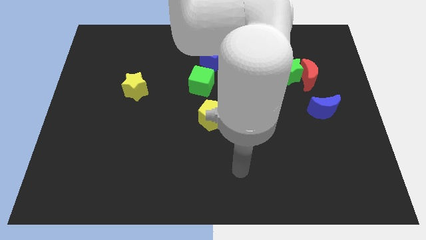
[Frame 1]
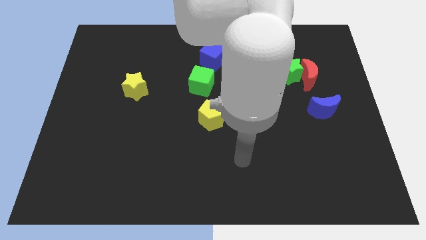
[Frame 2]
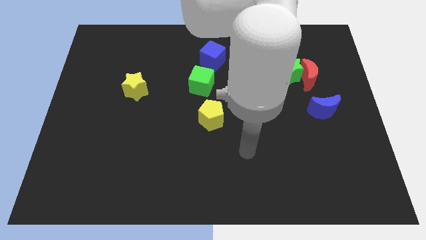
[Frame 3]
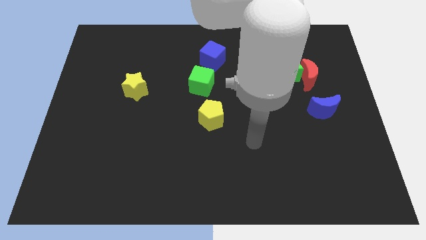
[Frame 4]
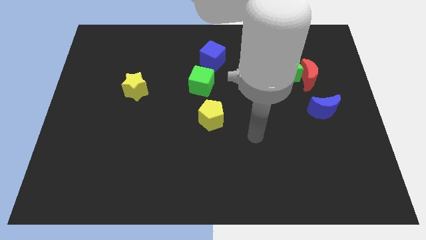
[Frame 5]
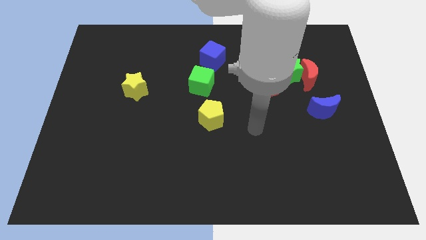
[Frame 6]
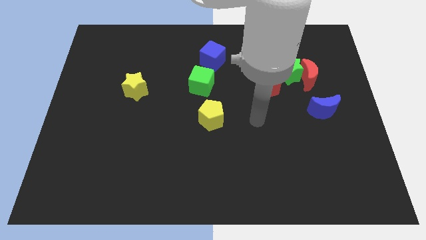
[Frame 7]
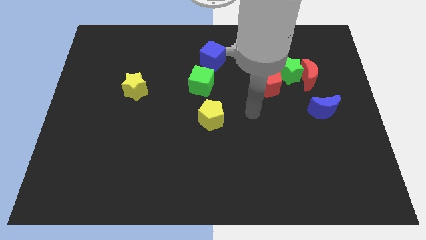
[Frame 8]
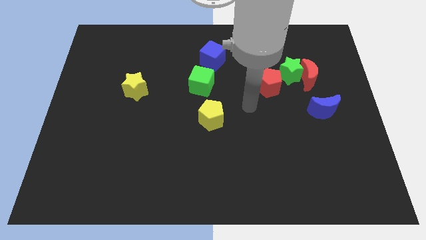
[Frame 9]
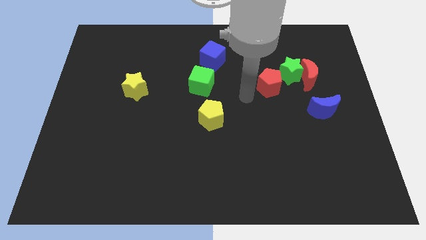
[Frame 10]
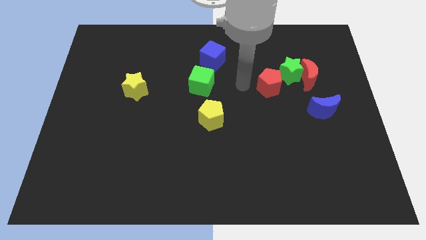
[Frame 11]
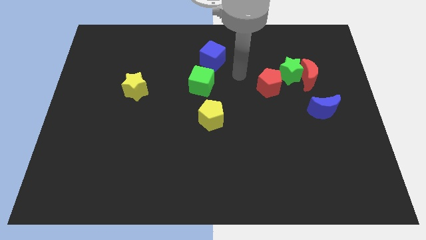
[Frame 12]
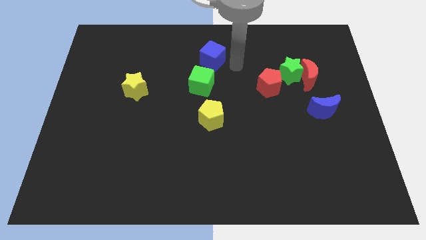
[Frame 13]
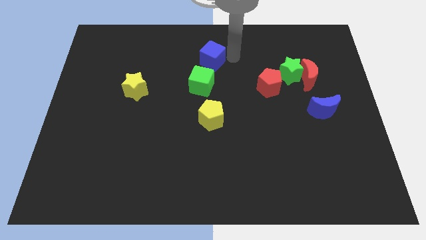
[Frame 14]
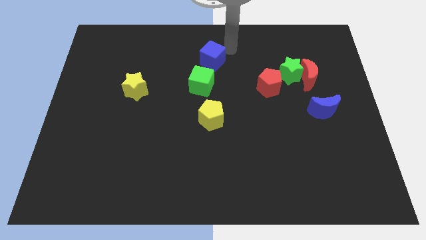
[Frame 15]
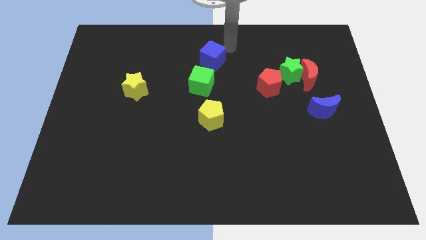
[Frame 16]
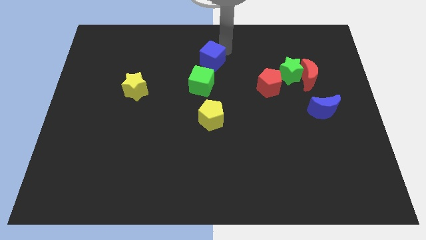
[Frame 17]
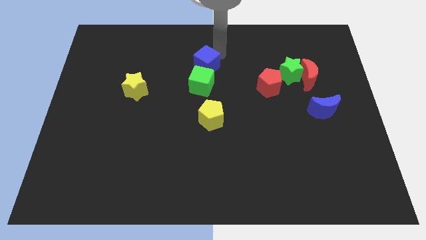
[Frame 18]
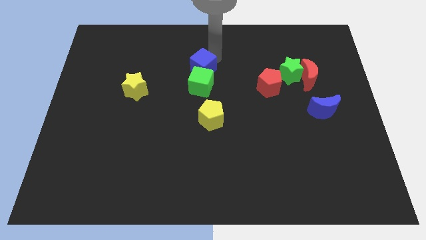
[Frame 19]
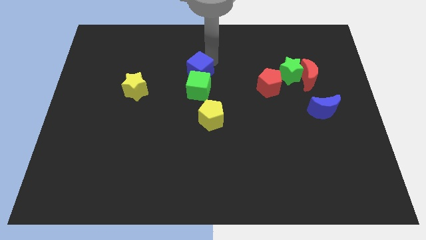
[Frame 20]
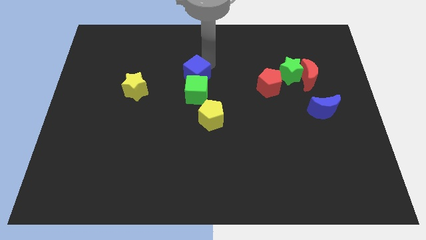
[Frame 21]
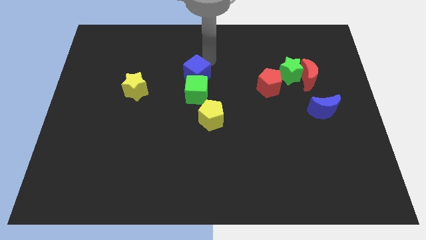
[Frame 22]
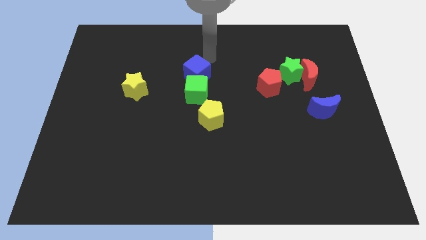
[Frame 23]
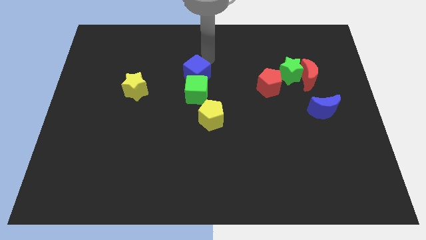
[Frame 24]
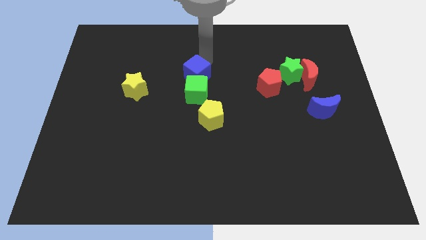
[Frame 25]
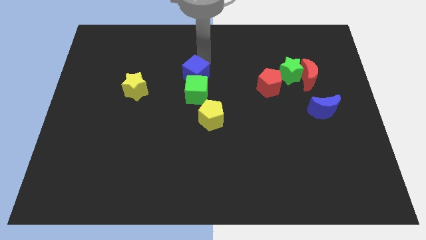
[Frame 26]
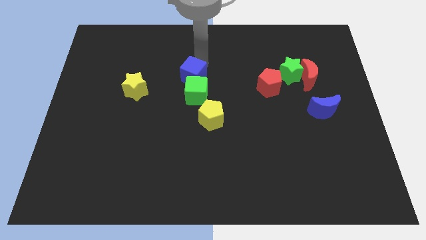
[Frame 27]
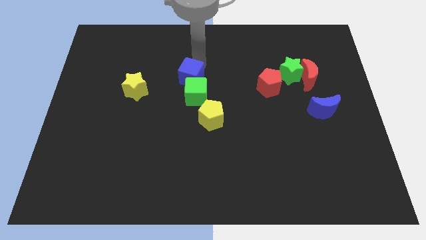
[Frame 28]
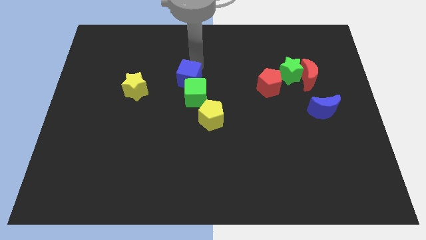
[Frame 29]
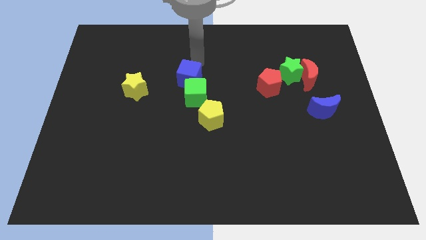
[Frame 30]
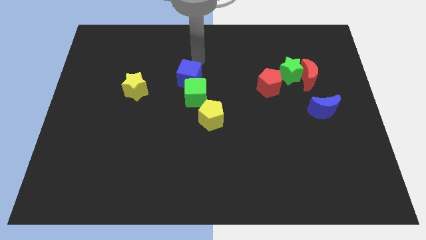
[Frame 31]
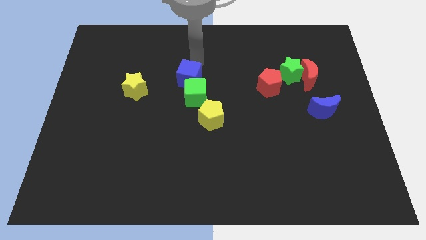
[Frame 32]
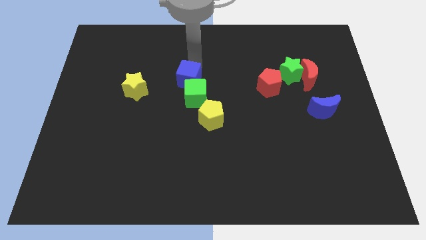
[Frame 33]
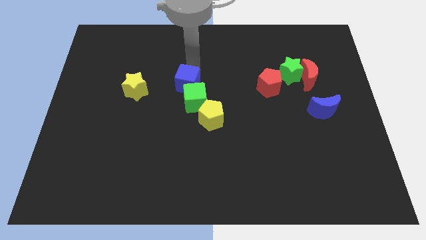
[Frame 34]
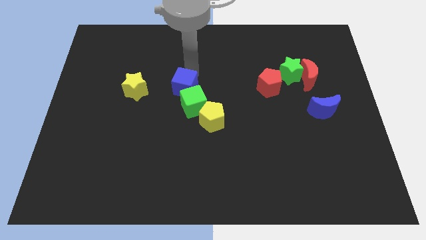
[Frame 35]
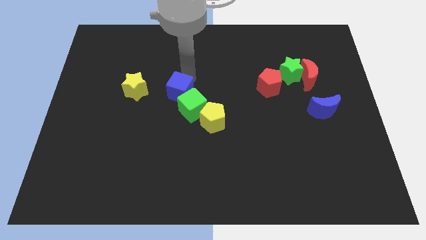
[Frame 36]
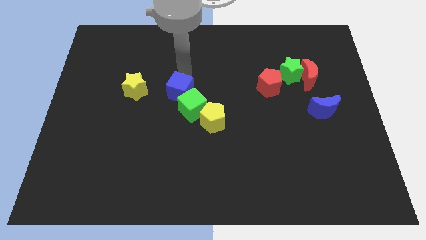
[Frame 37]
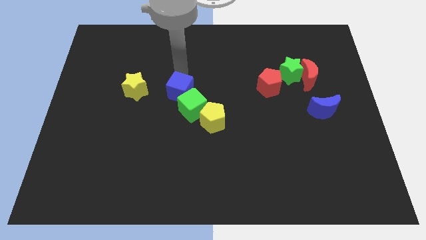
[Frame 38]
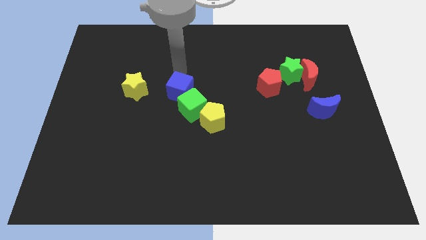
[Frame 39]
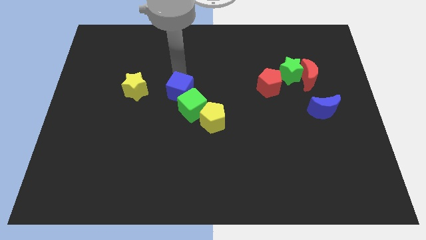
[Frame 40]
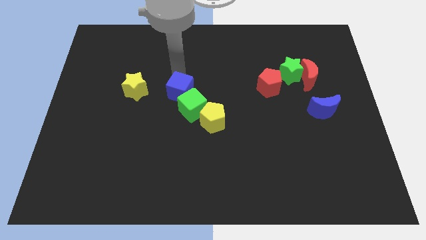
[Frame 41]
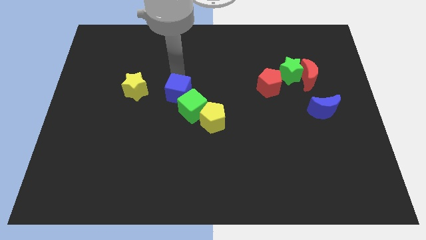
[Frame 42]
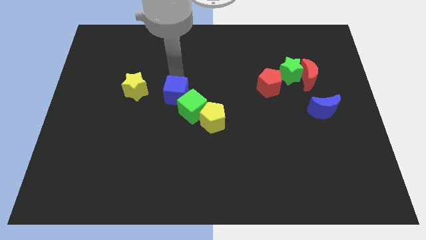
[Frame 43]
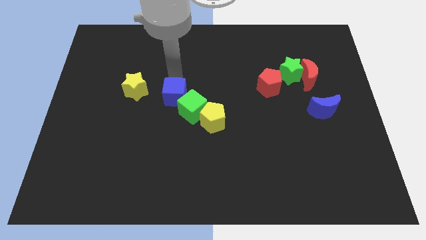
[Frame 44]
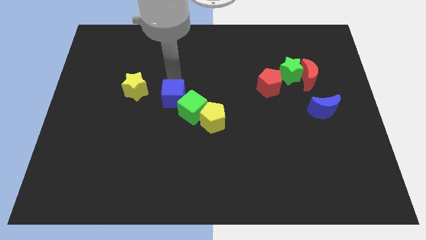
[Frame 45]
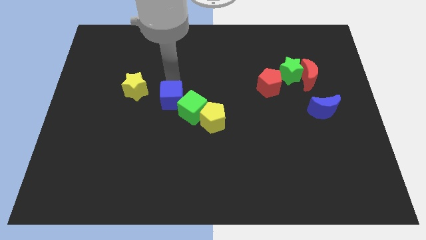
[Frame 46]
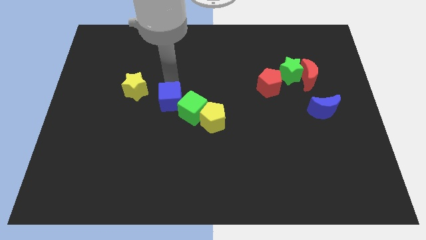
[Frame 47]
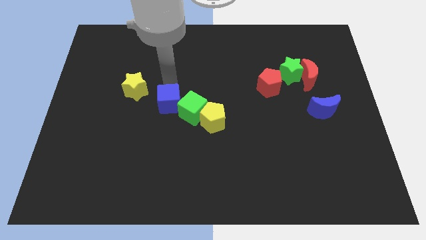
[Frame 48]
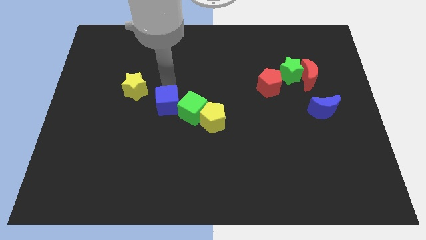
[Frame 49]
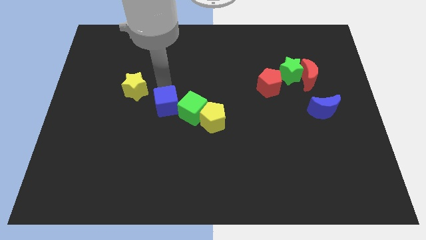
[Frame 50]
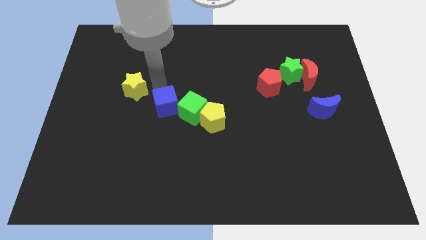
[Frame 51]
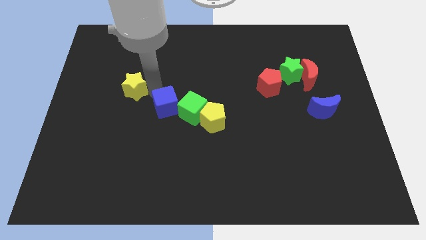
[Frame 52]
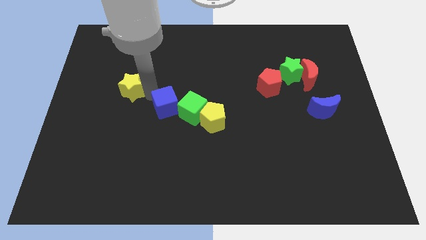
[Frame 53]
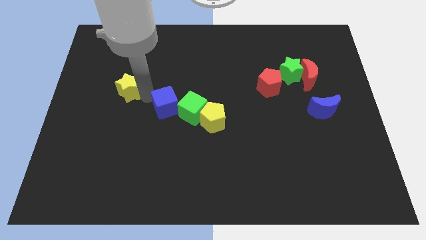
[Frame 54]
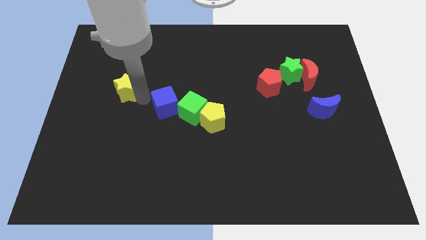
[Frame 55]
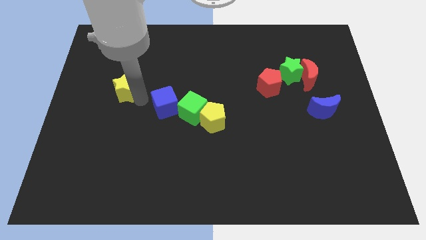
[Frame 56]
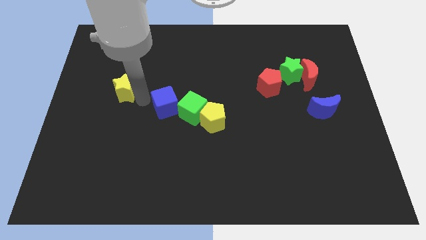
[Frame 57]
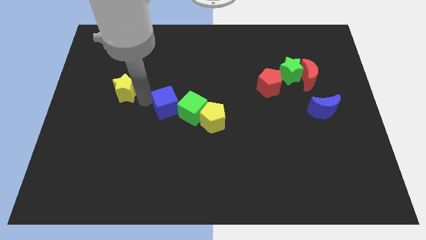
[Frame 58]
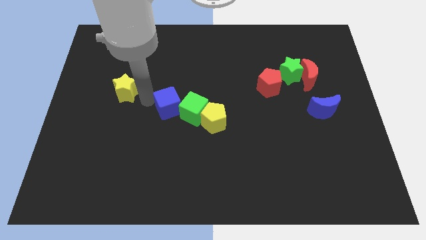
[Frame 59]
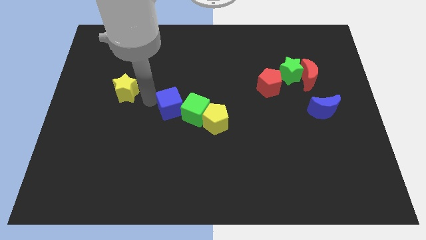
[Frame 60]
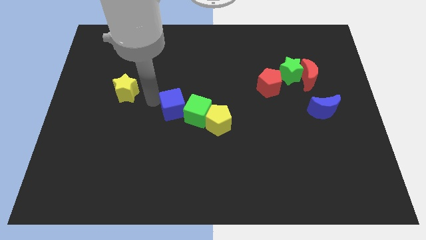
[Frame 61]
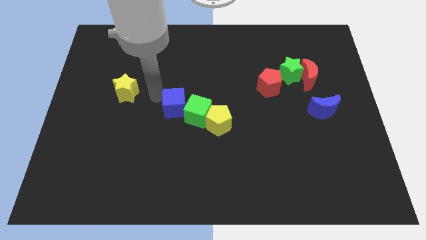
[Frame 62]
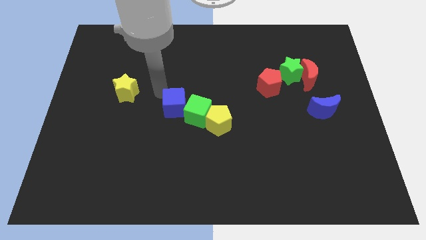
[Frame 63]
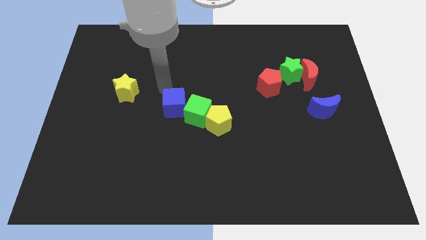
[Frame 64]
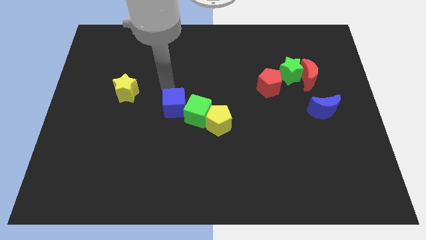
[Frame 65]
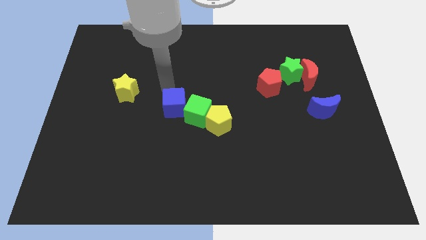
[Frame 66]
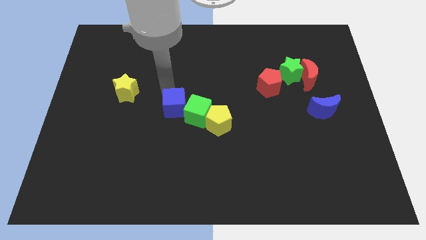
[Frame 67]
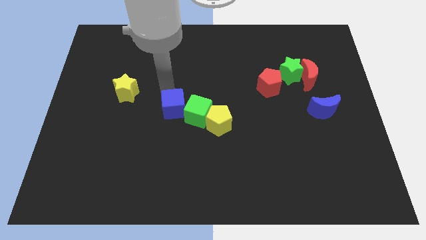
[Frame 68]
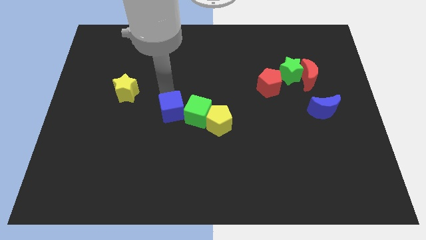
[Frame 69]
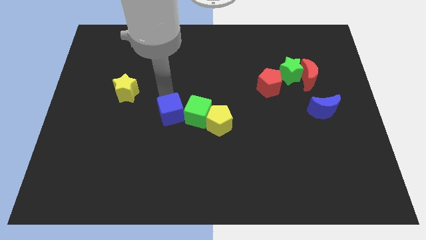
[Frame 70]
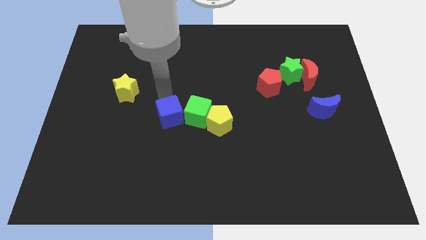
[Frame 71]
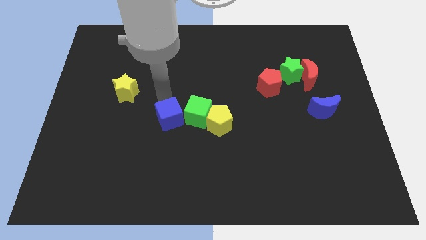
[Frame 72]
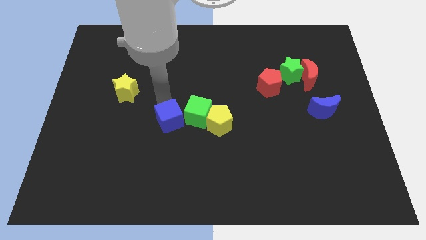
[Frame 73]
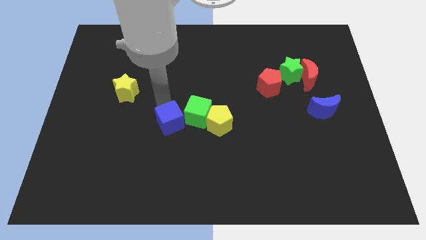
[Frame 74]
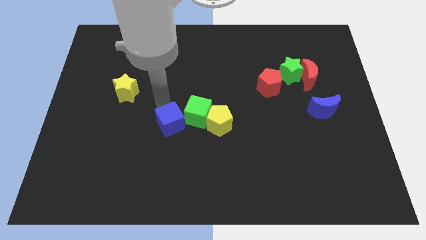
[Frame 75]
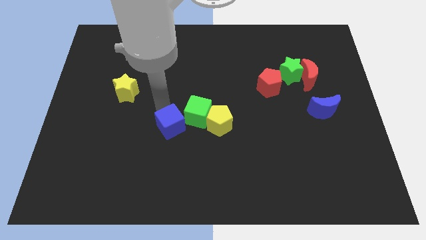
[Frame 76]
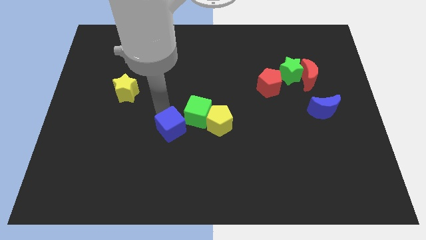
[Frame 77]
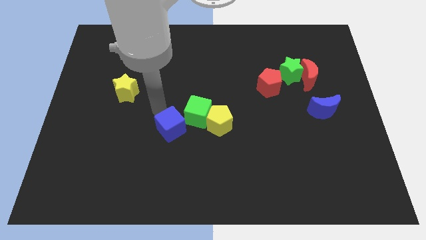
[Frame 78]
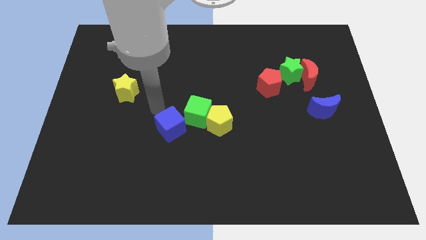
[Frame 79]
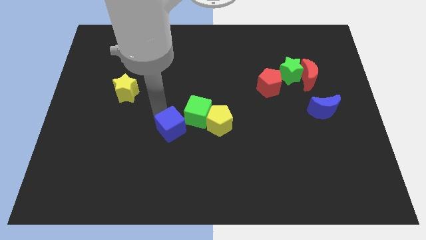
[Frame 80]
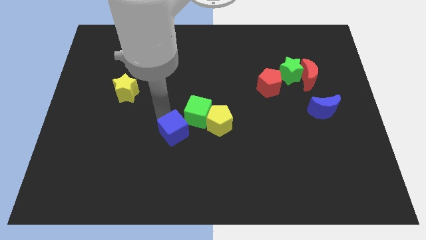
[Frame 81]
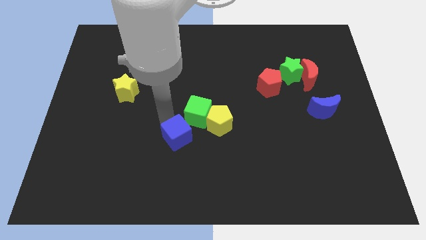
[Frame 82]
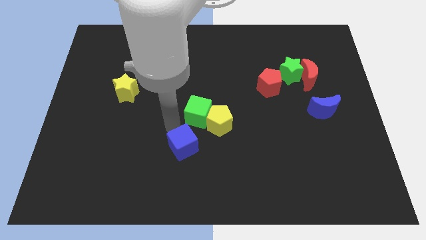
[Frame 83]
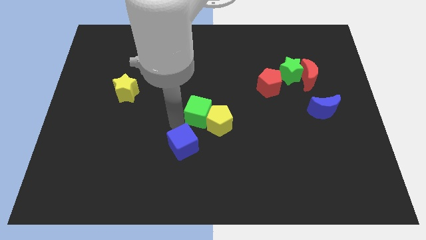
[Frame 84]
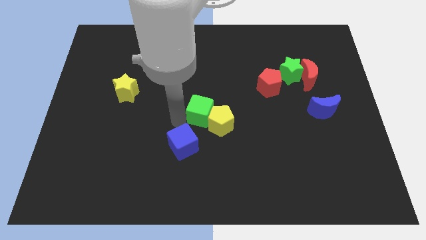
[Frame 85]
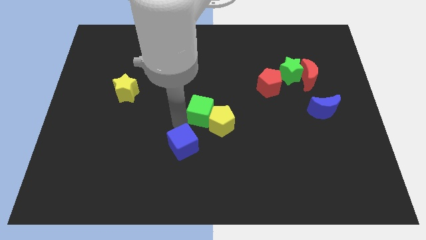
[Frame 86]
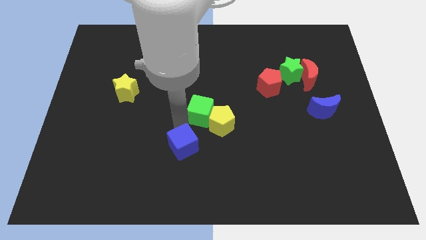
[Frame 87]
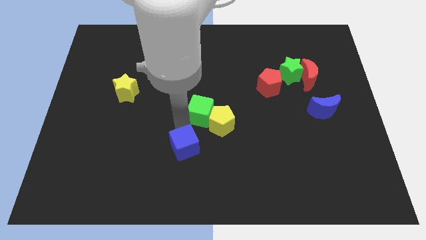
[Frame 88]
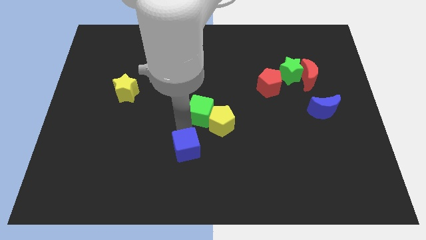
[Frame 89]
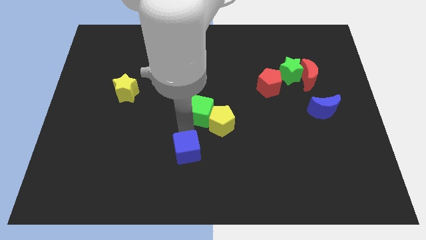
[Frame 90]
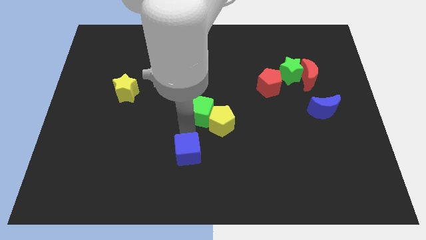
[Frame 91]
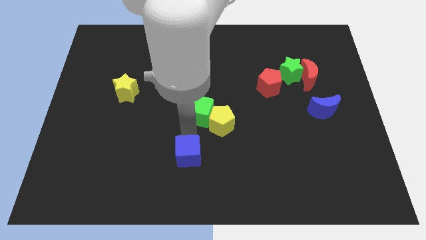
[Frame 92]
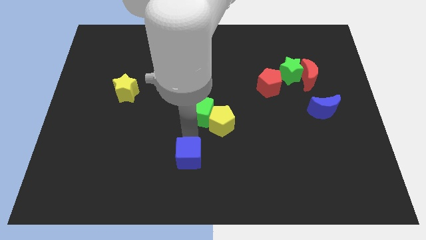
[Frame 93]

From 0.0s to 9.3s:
slide the blue cube to the bottom side
